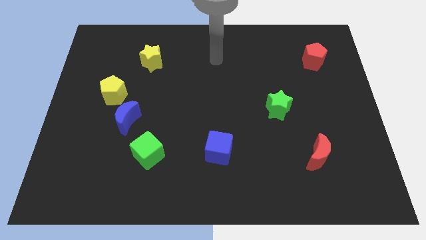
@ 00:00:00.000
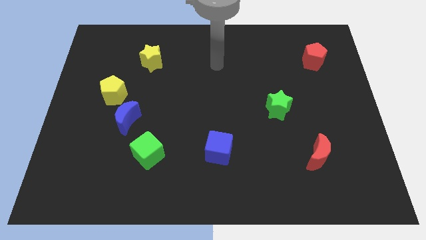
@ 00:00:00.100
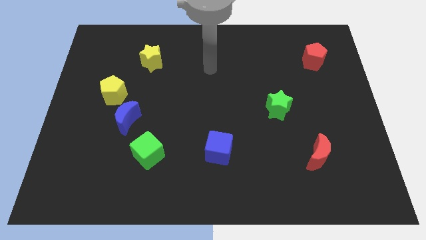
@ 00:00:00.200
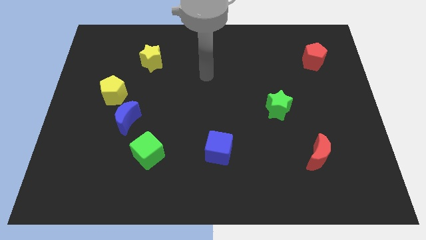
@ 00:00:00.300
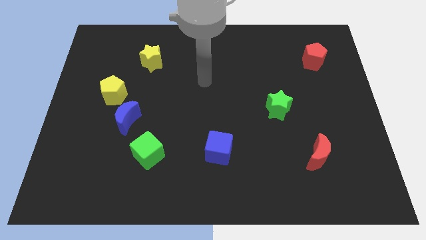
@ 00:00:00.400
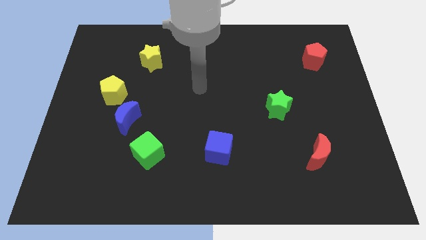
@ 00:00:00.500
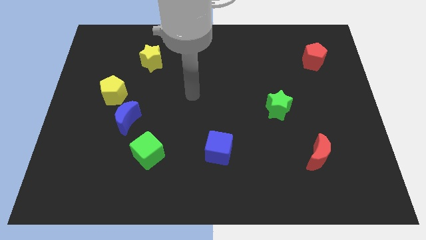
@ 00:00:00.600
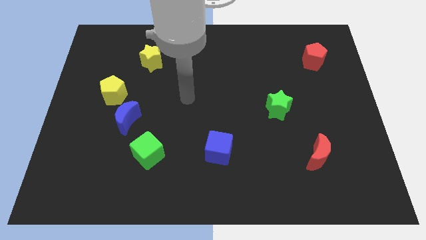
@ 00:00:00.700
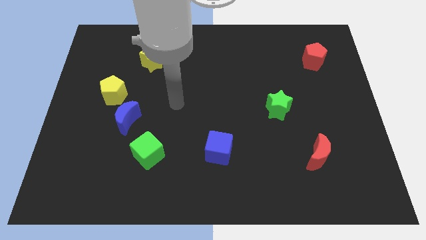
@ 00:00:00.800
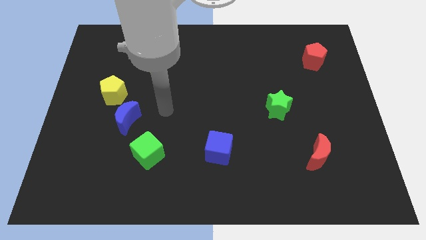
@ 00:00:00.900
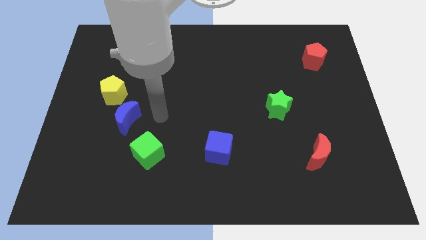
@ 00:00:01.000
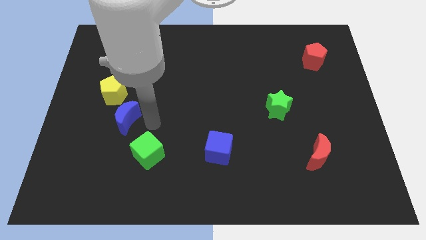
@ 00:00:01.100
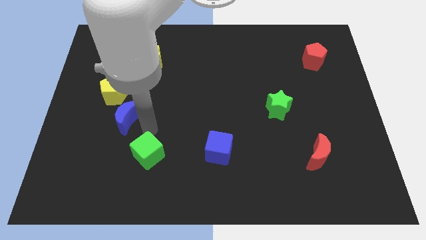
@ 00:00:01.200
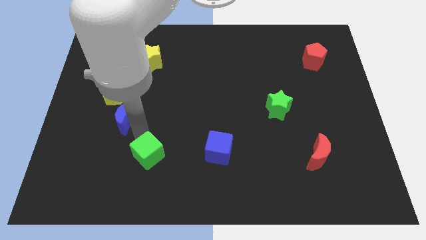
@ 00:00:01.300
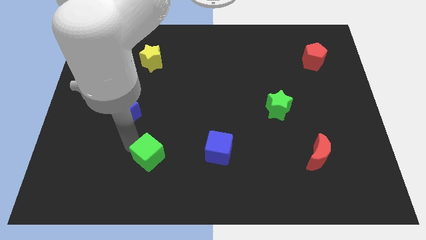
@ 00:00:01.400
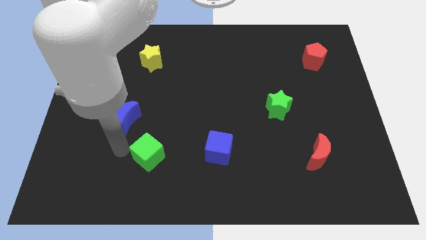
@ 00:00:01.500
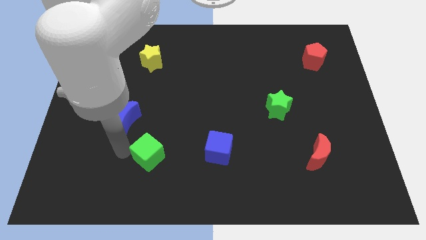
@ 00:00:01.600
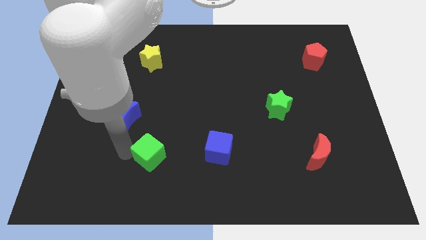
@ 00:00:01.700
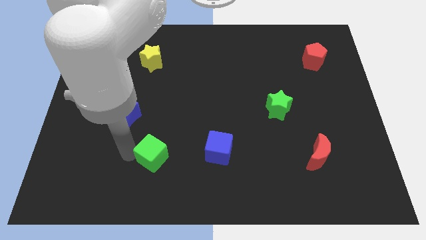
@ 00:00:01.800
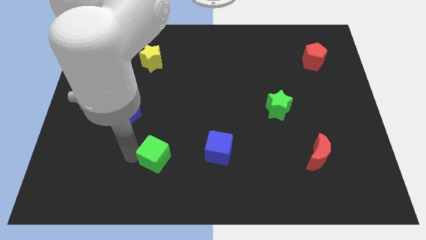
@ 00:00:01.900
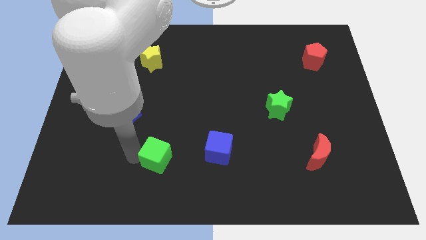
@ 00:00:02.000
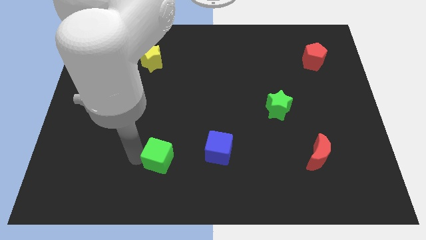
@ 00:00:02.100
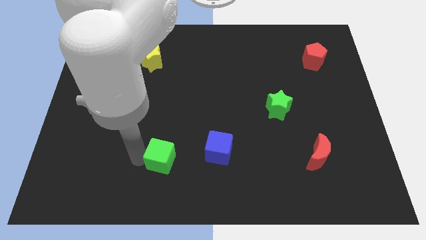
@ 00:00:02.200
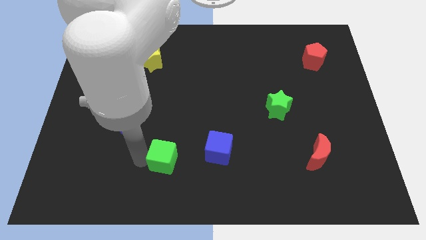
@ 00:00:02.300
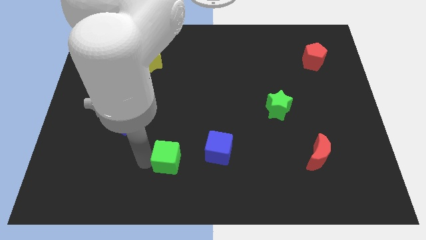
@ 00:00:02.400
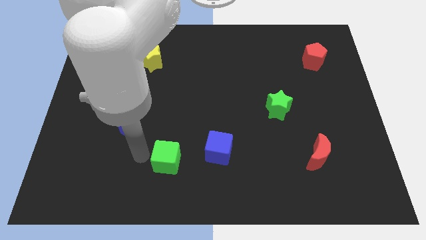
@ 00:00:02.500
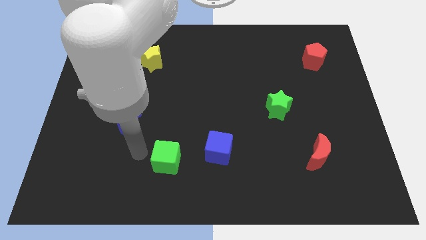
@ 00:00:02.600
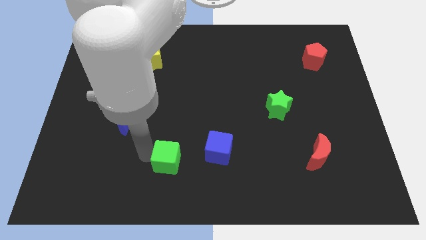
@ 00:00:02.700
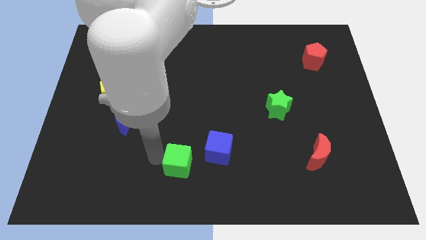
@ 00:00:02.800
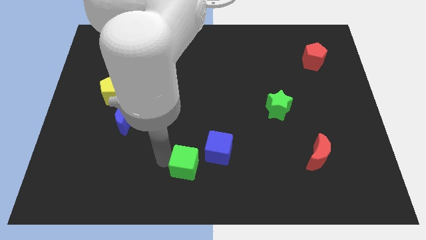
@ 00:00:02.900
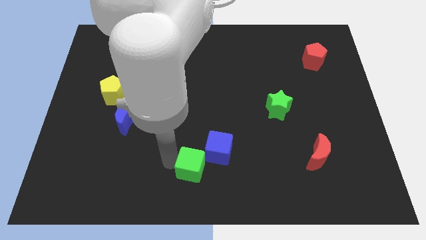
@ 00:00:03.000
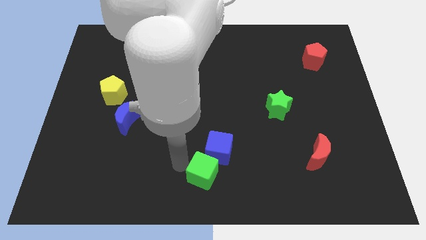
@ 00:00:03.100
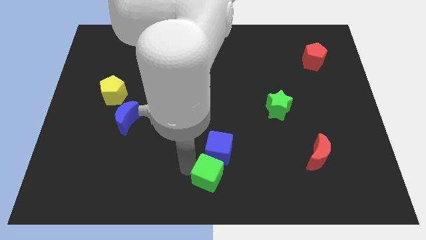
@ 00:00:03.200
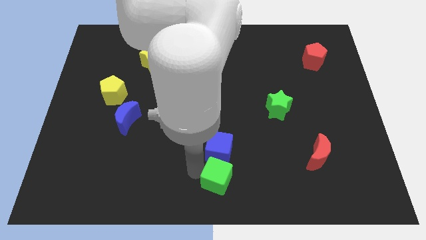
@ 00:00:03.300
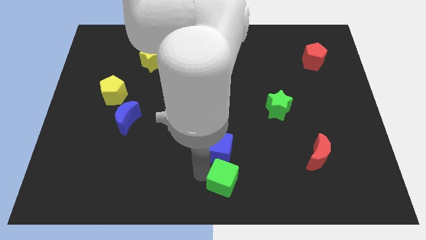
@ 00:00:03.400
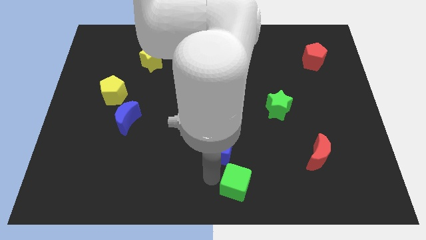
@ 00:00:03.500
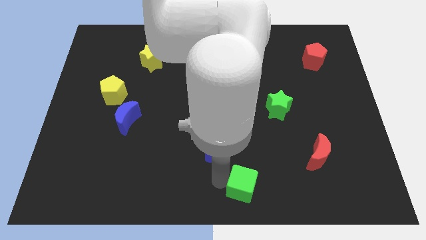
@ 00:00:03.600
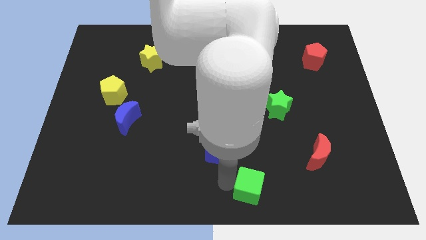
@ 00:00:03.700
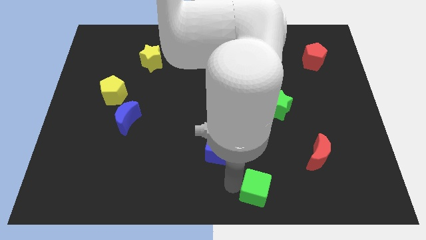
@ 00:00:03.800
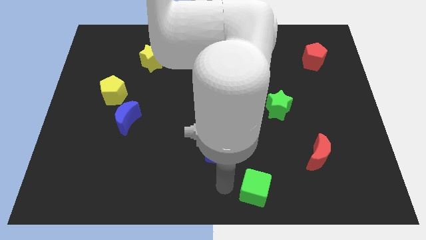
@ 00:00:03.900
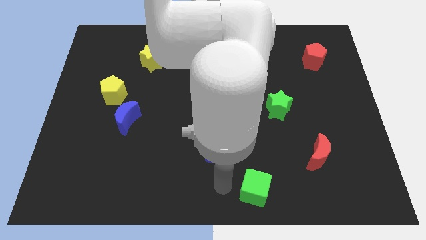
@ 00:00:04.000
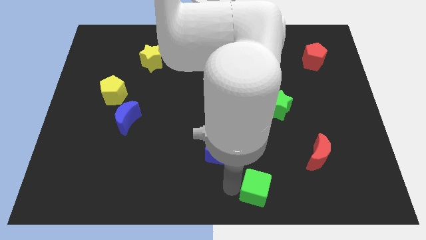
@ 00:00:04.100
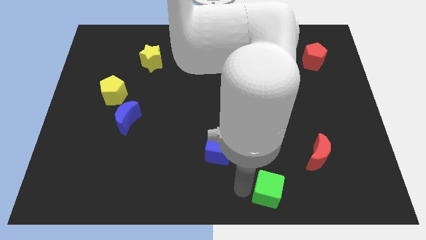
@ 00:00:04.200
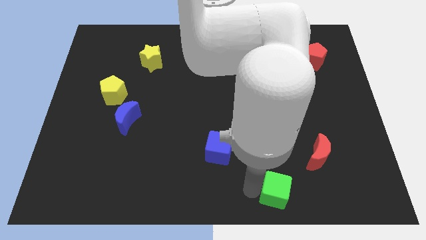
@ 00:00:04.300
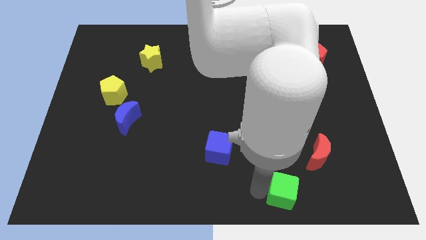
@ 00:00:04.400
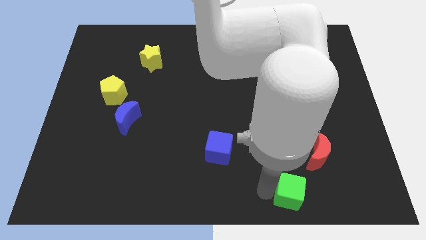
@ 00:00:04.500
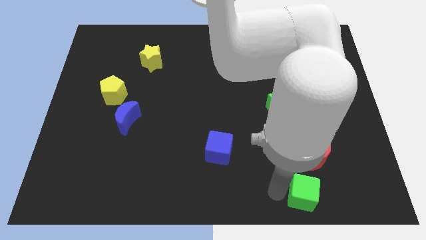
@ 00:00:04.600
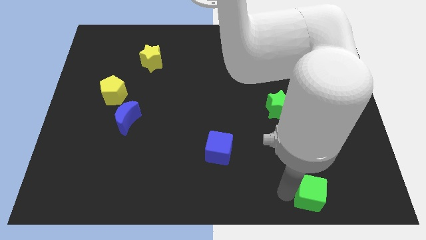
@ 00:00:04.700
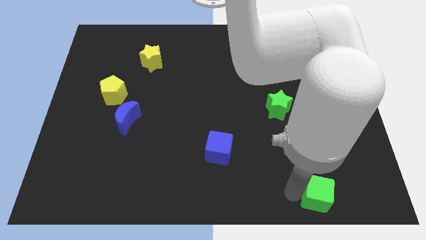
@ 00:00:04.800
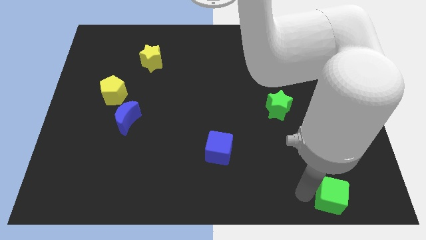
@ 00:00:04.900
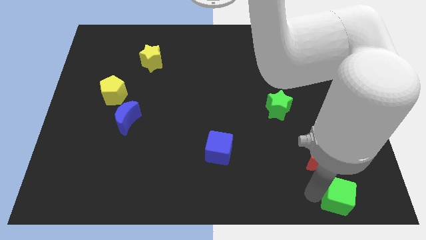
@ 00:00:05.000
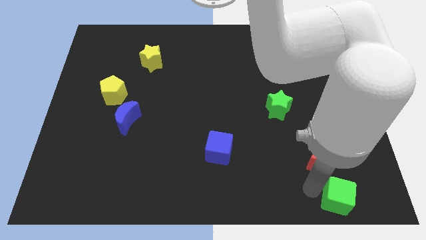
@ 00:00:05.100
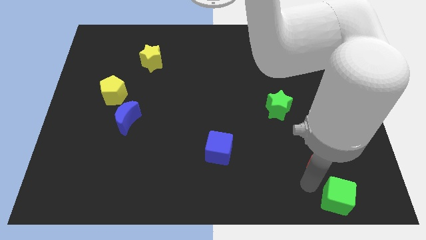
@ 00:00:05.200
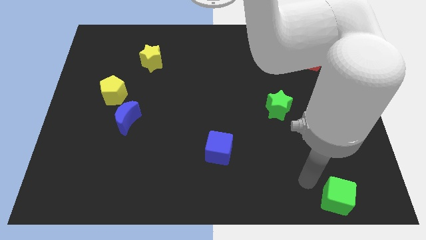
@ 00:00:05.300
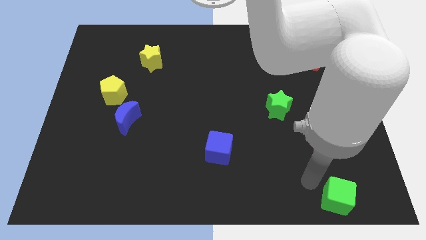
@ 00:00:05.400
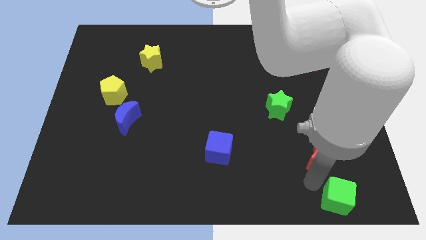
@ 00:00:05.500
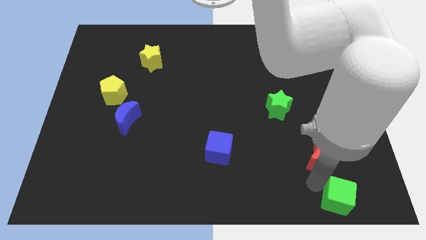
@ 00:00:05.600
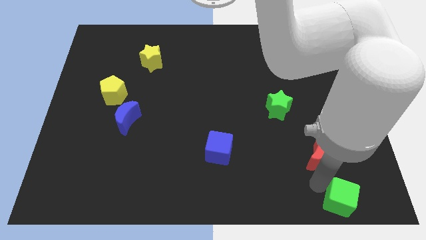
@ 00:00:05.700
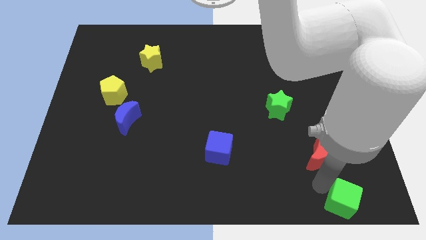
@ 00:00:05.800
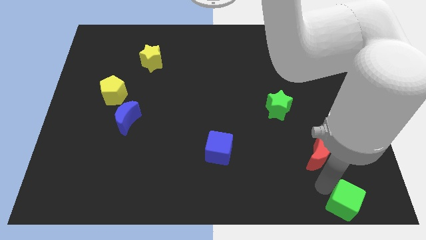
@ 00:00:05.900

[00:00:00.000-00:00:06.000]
slide the green cube to the bottom right

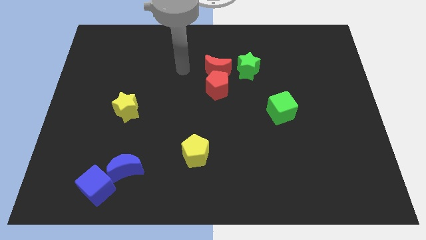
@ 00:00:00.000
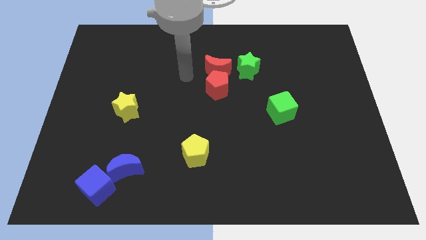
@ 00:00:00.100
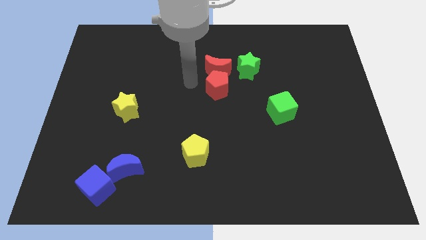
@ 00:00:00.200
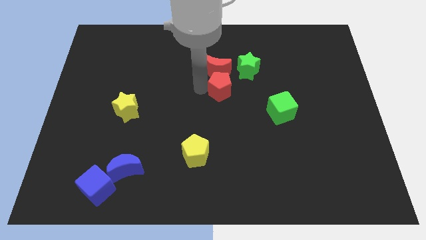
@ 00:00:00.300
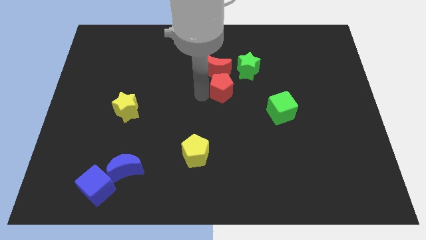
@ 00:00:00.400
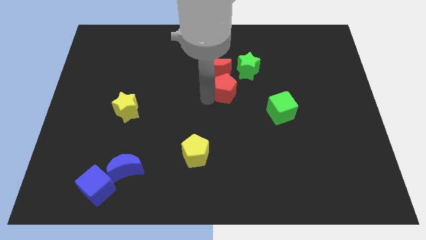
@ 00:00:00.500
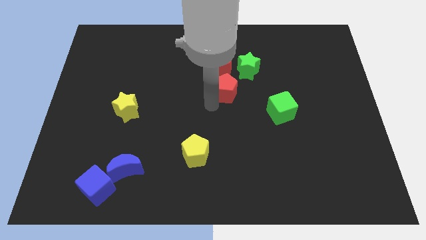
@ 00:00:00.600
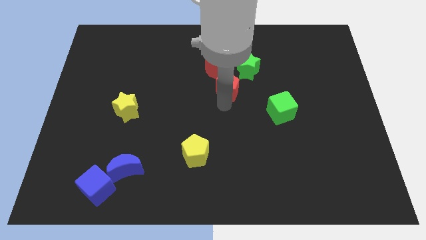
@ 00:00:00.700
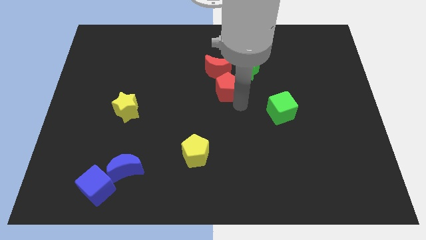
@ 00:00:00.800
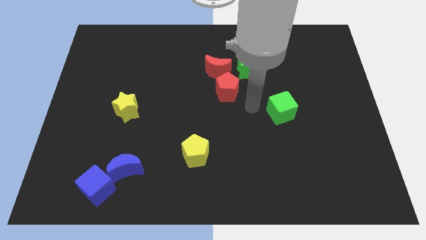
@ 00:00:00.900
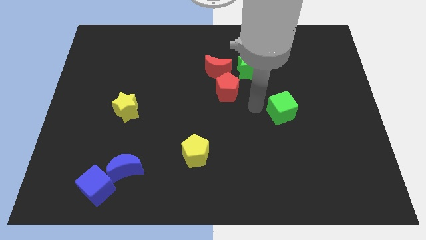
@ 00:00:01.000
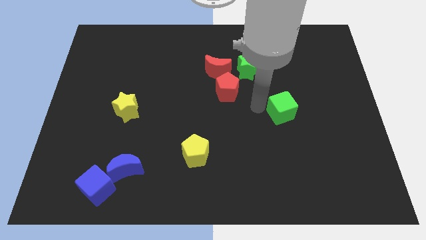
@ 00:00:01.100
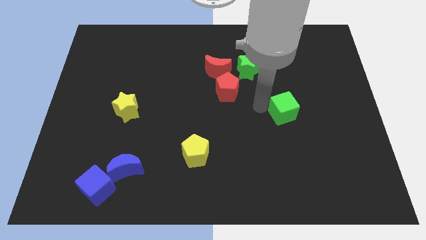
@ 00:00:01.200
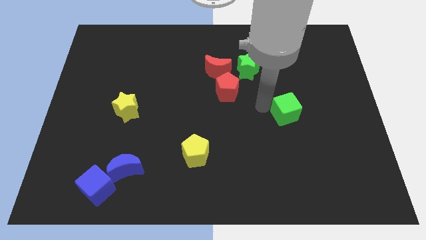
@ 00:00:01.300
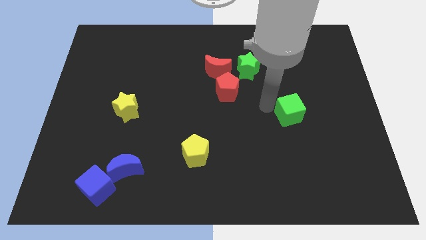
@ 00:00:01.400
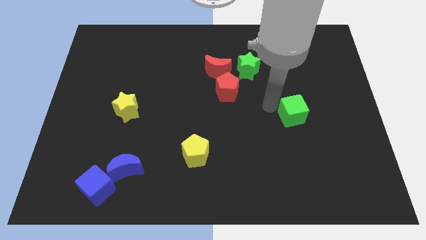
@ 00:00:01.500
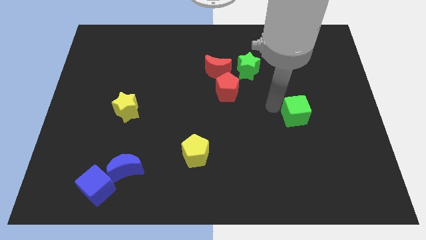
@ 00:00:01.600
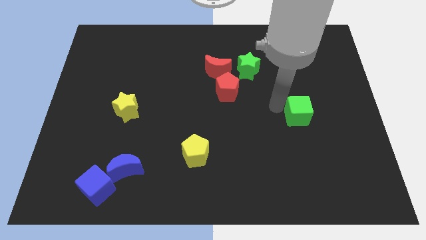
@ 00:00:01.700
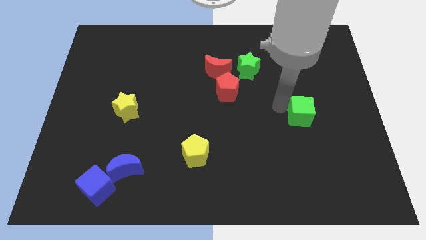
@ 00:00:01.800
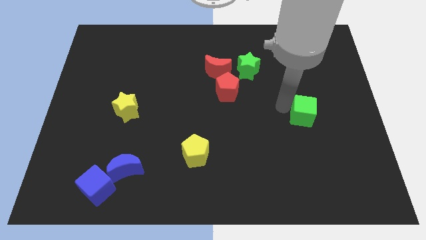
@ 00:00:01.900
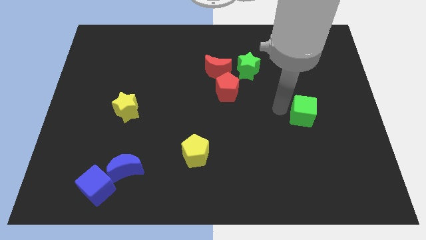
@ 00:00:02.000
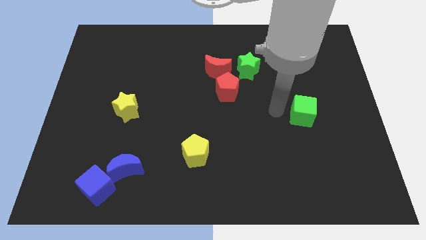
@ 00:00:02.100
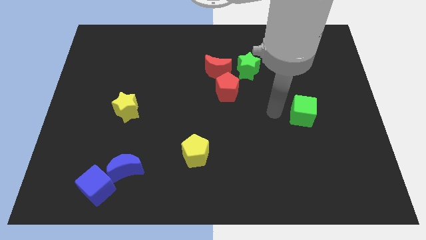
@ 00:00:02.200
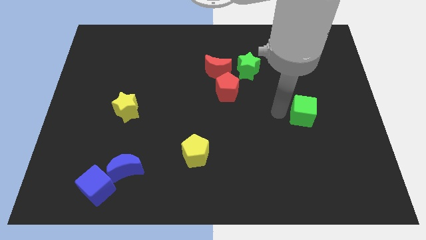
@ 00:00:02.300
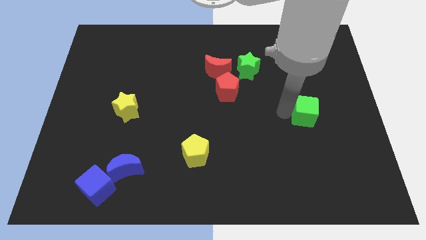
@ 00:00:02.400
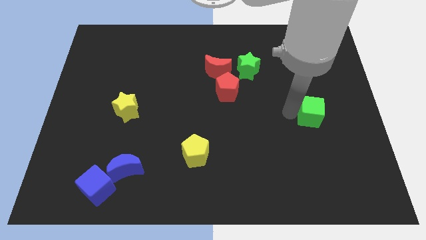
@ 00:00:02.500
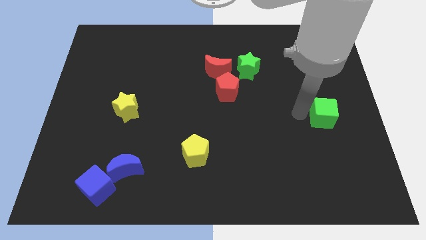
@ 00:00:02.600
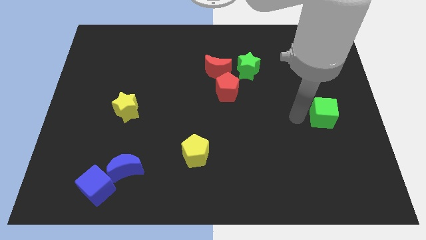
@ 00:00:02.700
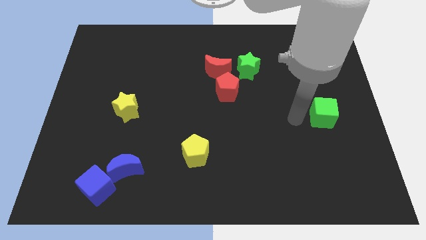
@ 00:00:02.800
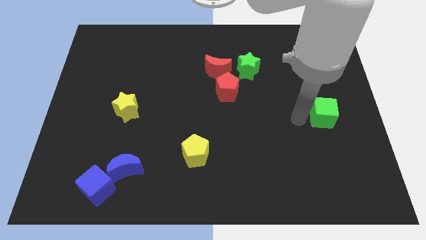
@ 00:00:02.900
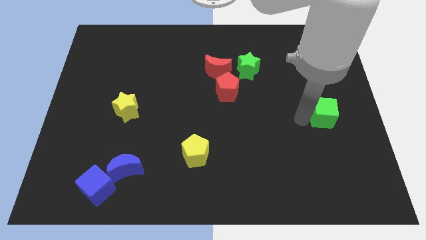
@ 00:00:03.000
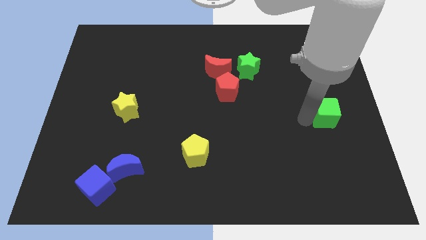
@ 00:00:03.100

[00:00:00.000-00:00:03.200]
move the green cube to the right side
